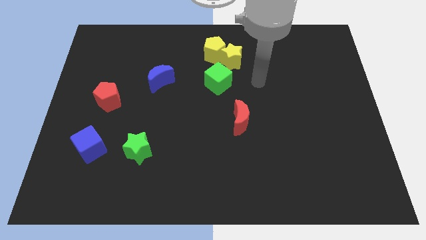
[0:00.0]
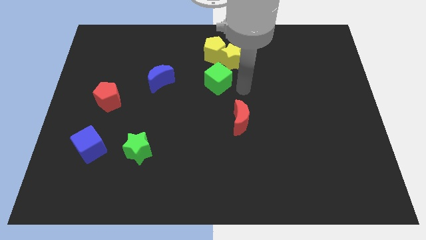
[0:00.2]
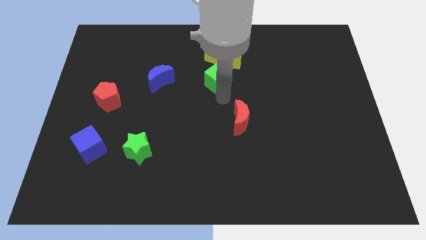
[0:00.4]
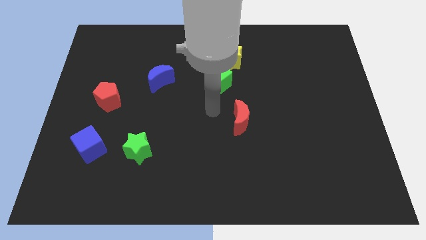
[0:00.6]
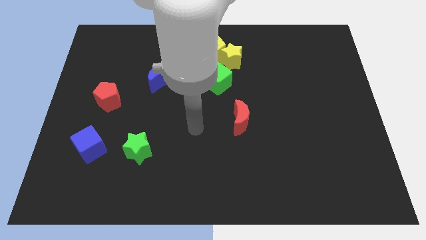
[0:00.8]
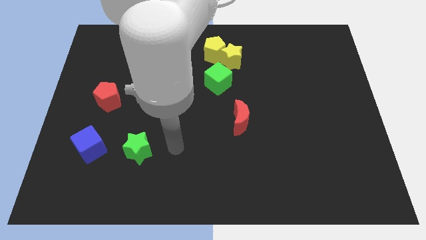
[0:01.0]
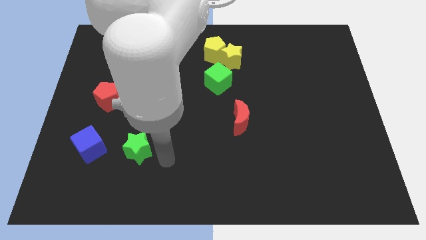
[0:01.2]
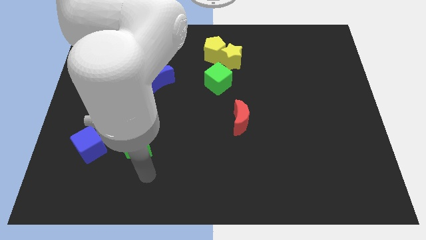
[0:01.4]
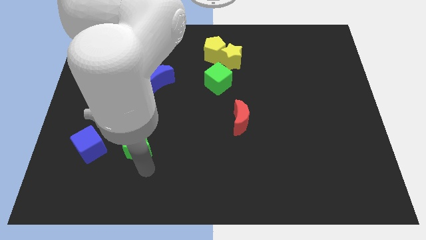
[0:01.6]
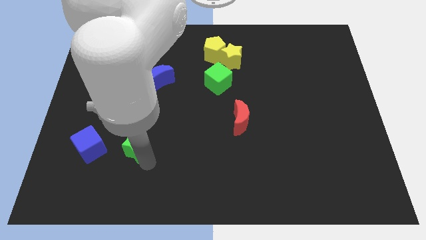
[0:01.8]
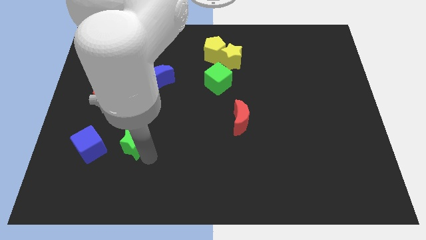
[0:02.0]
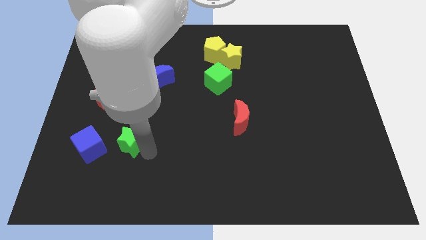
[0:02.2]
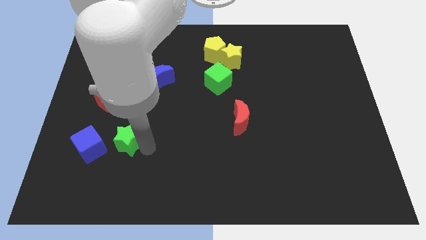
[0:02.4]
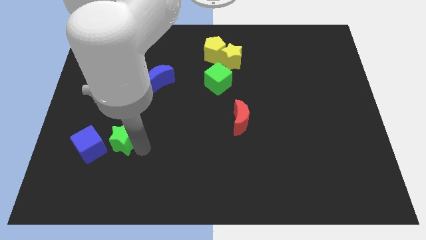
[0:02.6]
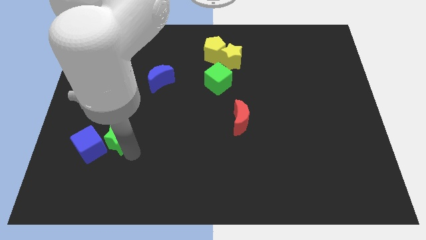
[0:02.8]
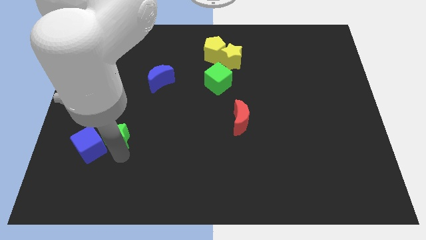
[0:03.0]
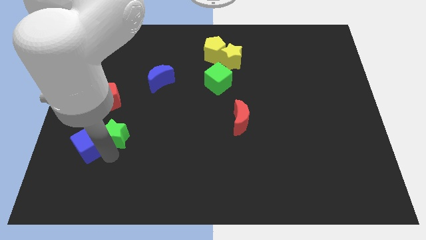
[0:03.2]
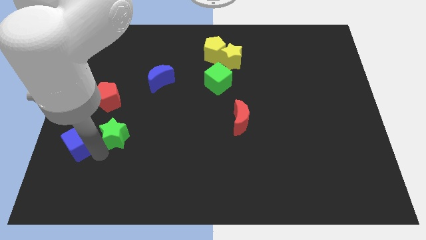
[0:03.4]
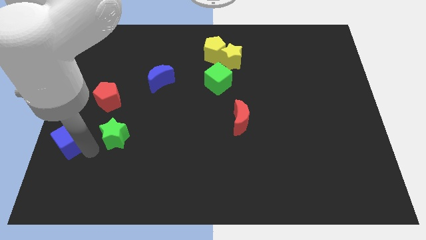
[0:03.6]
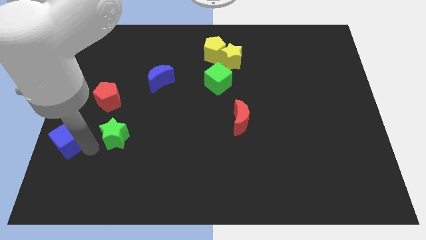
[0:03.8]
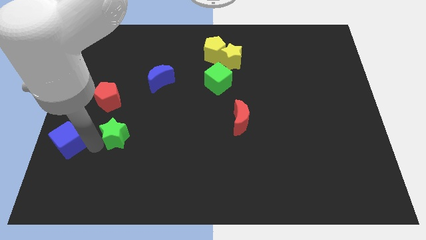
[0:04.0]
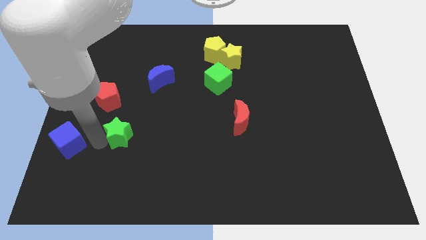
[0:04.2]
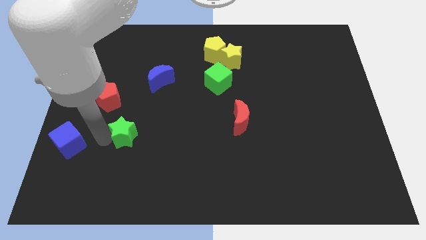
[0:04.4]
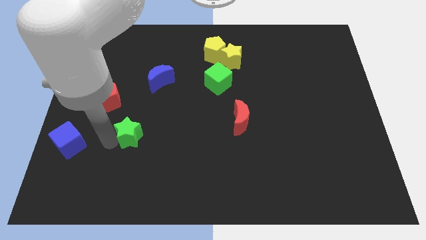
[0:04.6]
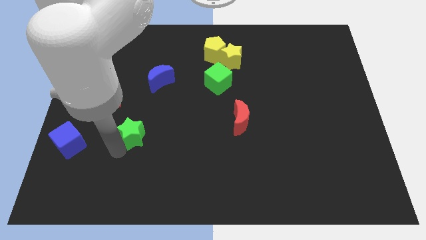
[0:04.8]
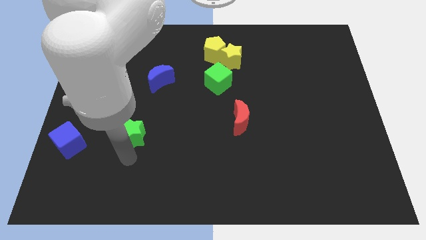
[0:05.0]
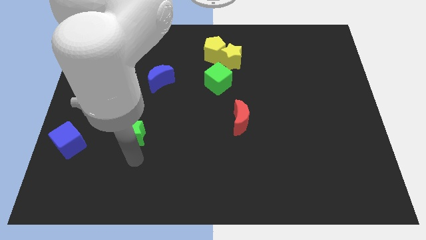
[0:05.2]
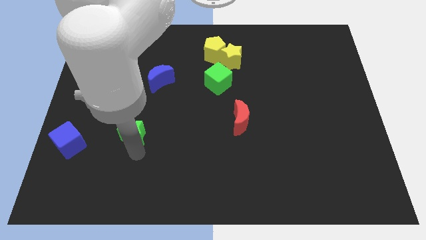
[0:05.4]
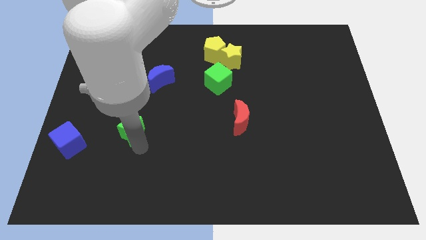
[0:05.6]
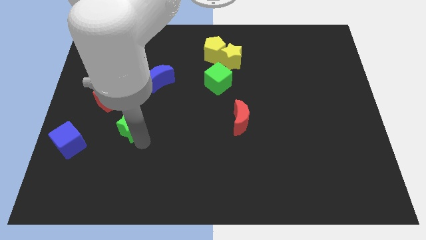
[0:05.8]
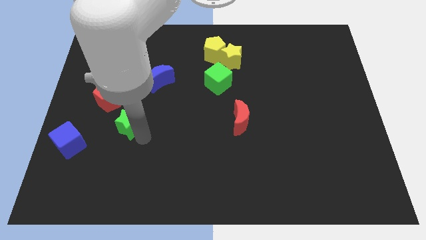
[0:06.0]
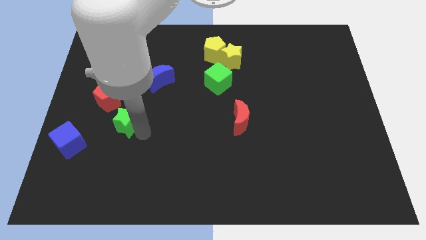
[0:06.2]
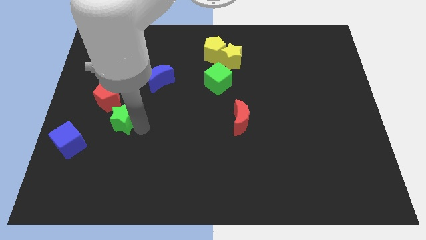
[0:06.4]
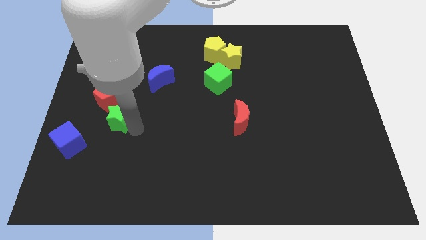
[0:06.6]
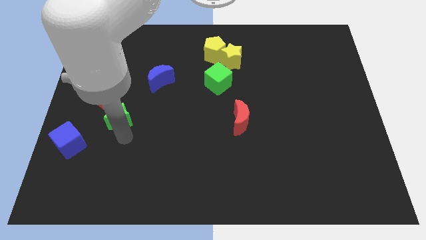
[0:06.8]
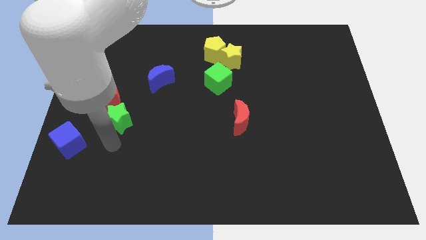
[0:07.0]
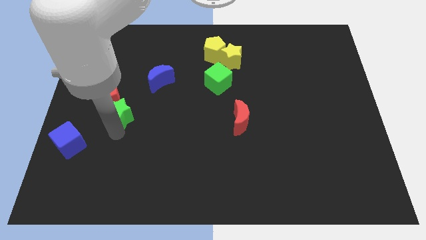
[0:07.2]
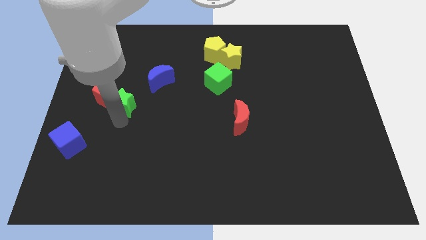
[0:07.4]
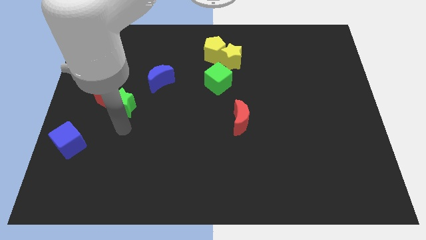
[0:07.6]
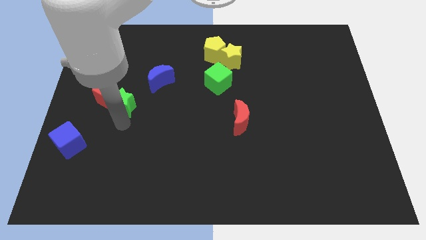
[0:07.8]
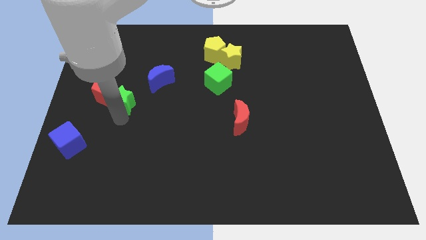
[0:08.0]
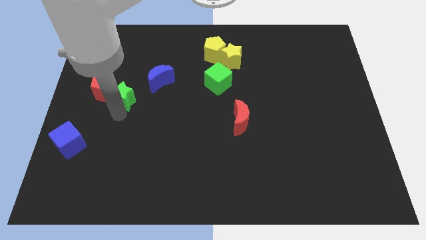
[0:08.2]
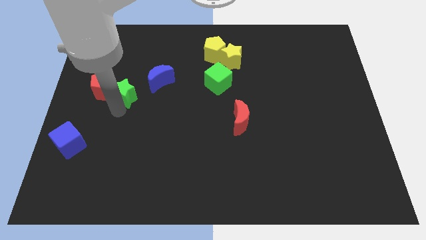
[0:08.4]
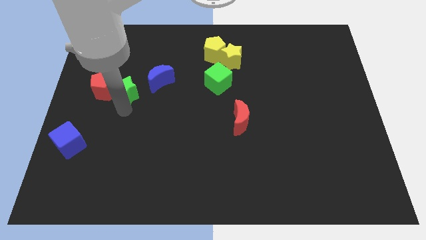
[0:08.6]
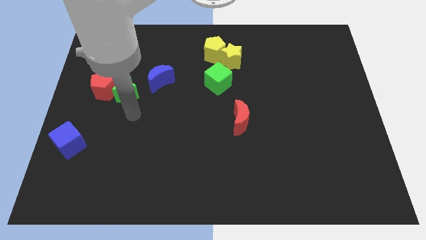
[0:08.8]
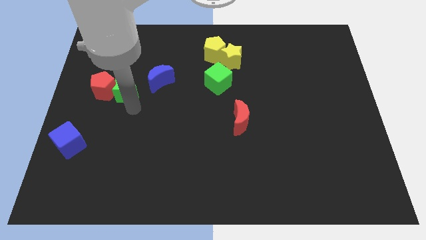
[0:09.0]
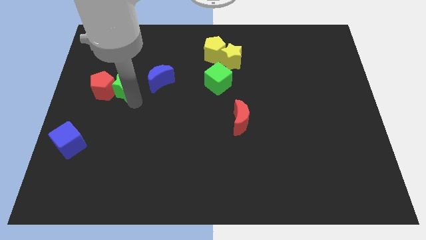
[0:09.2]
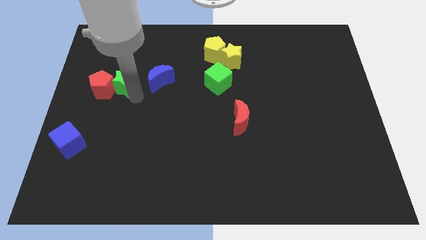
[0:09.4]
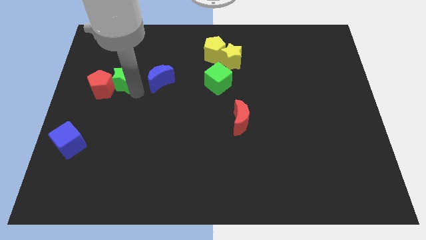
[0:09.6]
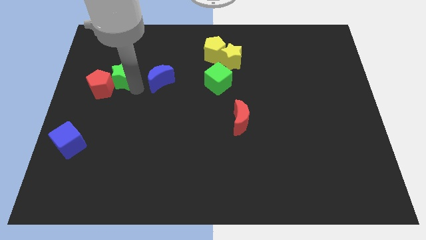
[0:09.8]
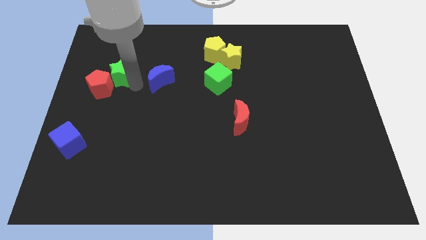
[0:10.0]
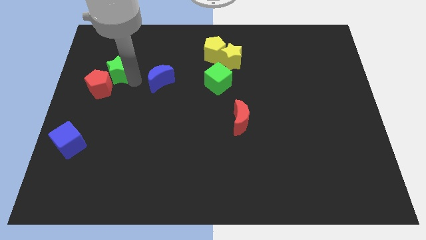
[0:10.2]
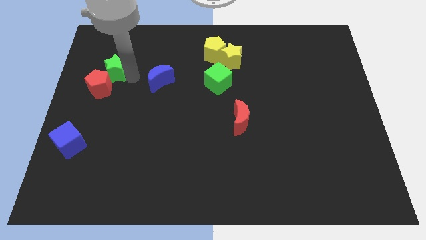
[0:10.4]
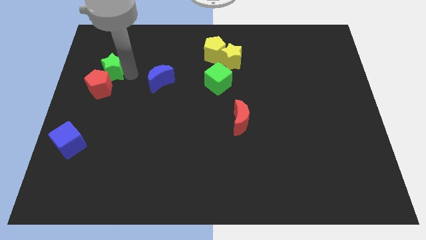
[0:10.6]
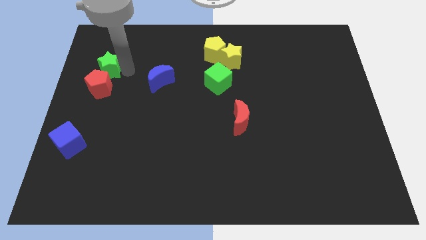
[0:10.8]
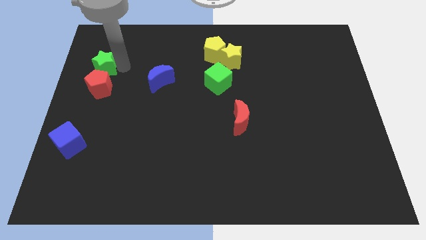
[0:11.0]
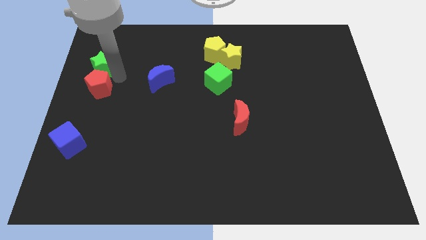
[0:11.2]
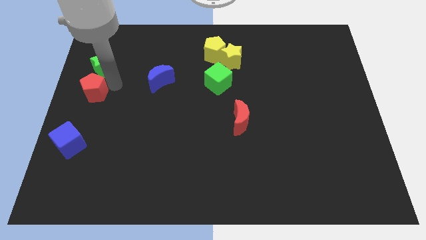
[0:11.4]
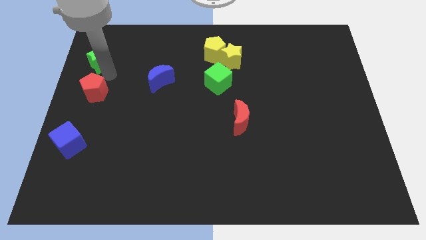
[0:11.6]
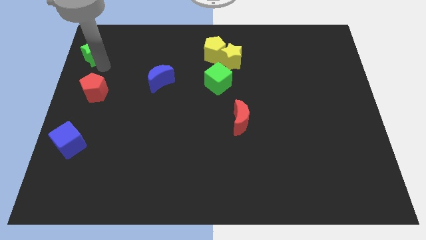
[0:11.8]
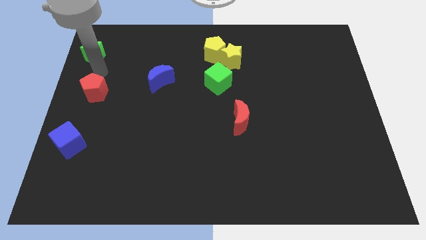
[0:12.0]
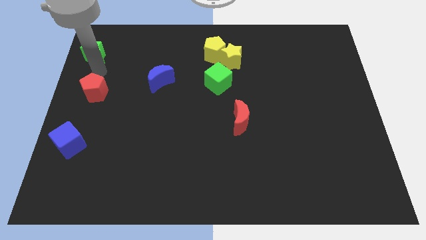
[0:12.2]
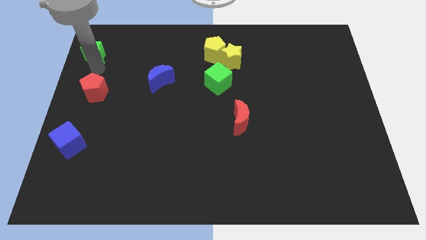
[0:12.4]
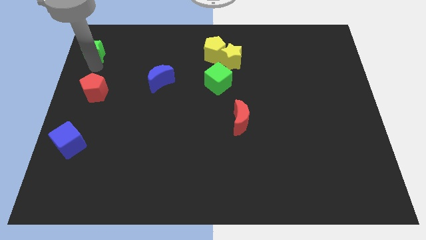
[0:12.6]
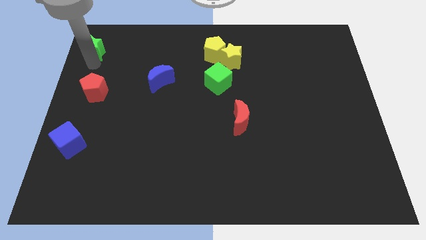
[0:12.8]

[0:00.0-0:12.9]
slide the green star to the upper left corner
